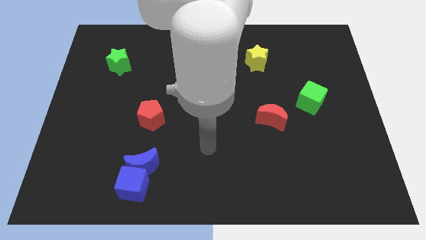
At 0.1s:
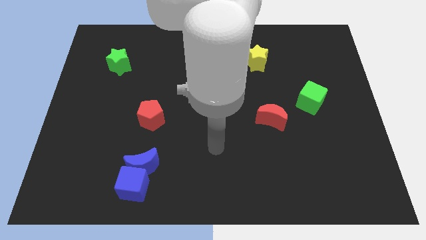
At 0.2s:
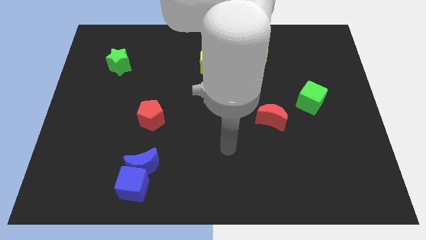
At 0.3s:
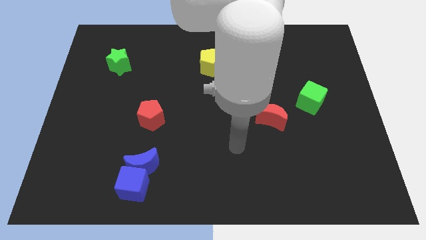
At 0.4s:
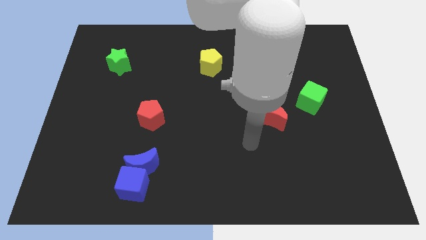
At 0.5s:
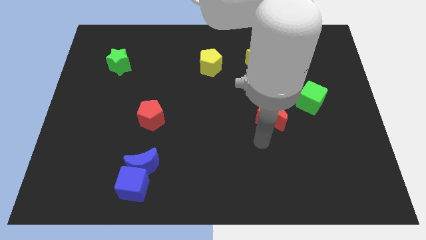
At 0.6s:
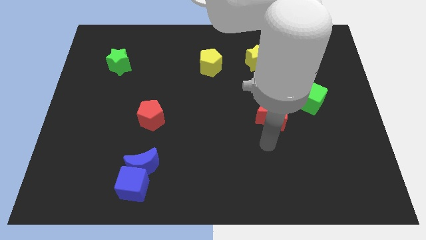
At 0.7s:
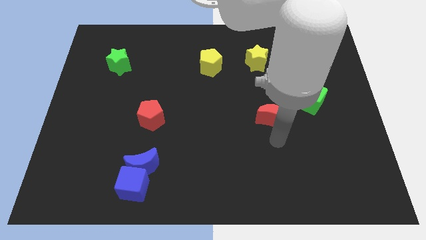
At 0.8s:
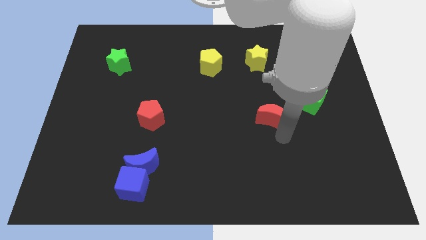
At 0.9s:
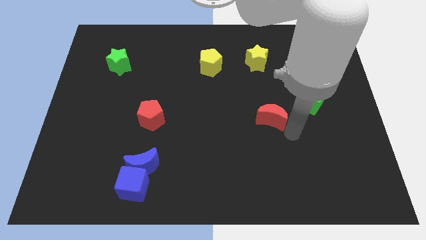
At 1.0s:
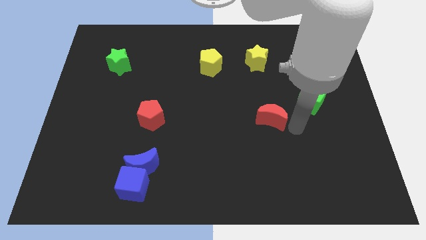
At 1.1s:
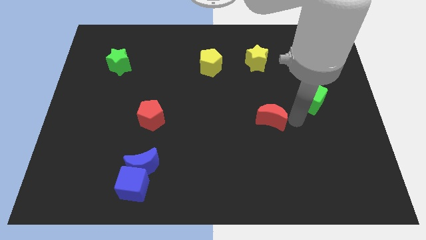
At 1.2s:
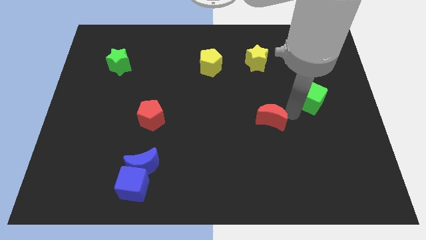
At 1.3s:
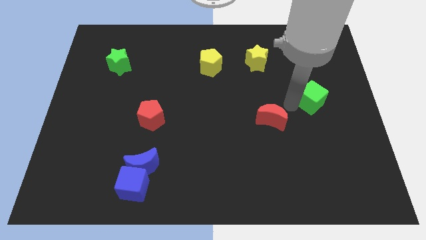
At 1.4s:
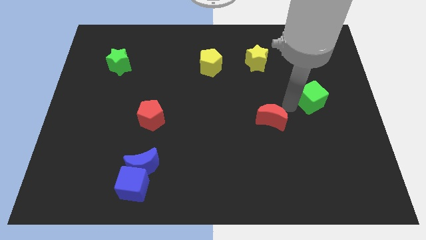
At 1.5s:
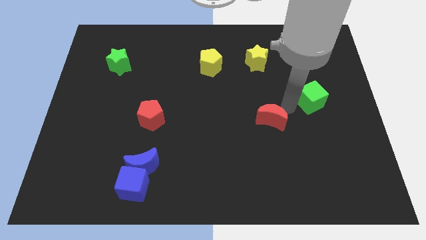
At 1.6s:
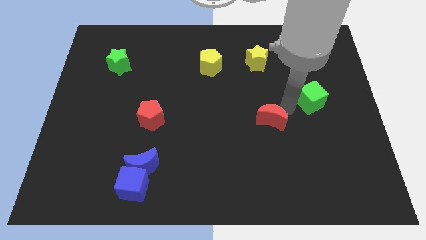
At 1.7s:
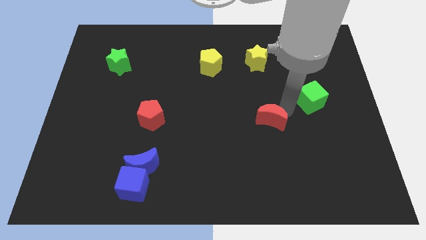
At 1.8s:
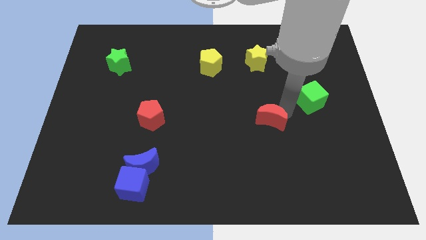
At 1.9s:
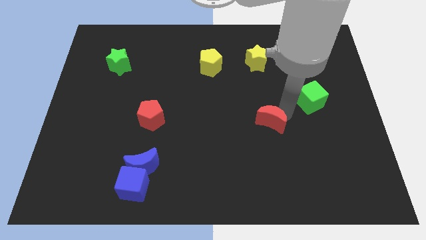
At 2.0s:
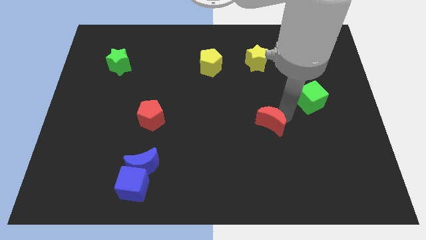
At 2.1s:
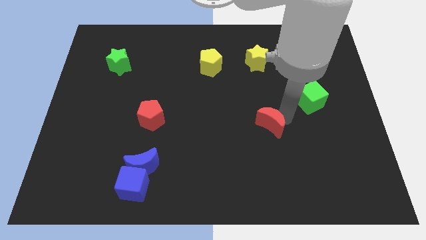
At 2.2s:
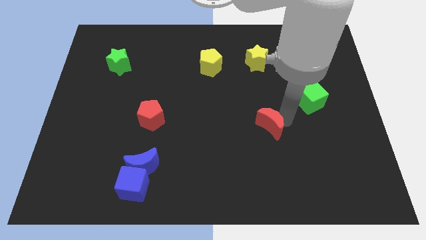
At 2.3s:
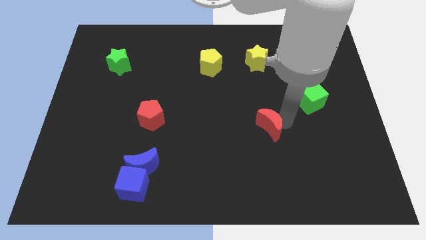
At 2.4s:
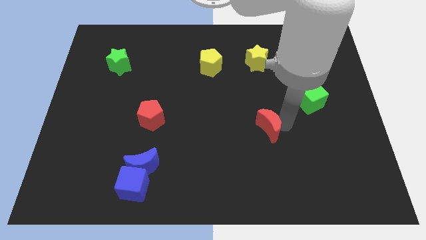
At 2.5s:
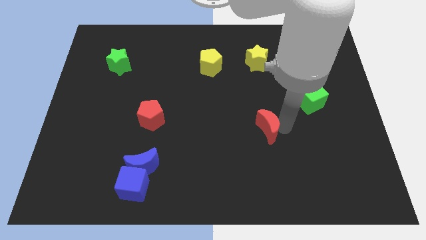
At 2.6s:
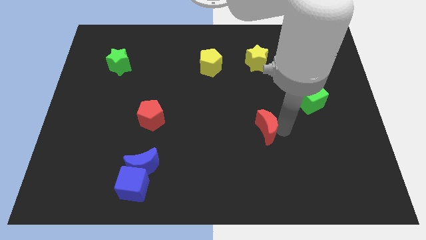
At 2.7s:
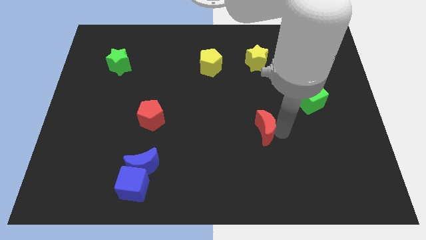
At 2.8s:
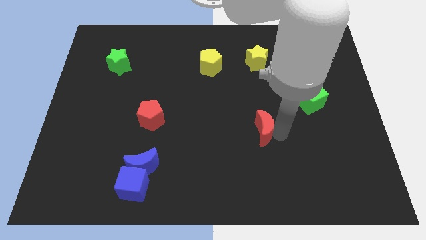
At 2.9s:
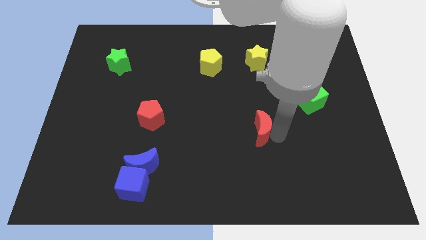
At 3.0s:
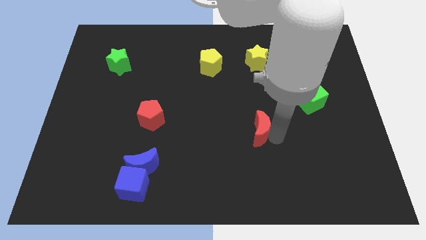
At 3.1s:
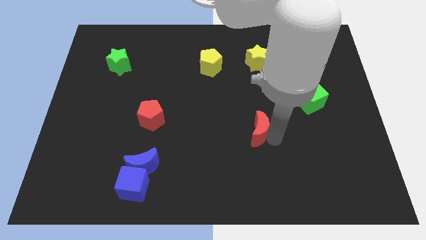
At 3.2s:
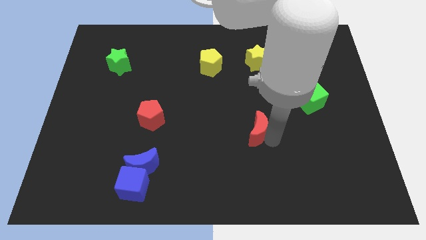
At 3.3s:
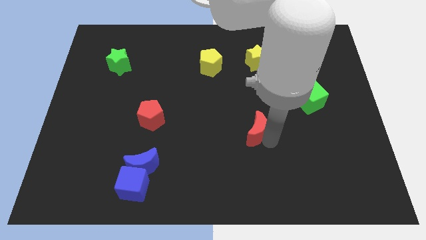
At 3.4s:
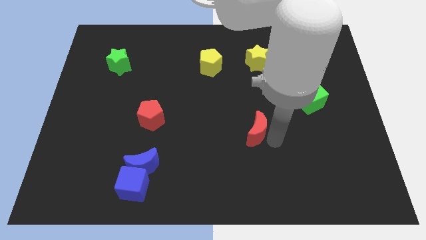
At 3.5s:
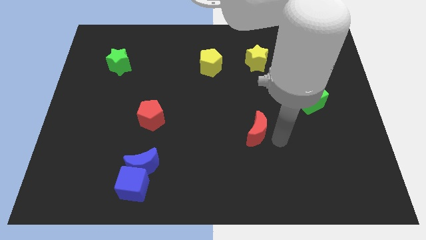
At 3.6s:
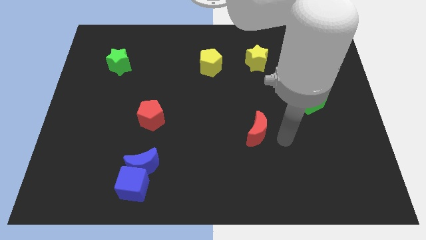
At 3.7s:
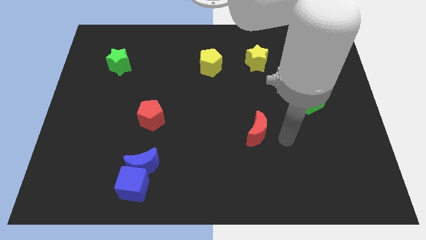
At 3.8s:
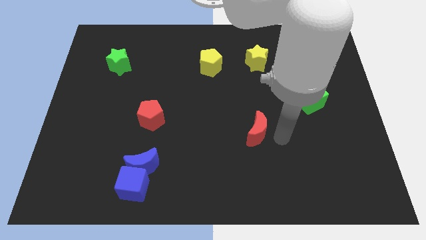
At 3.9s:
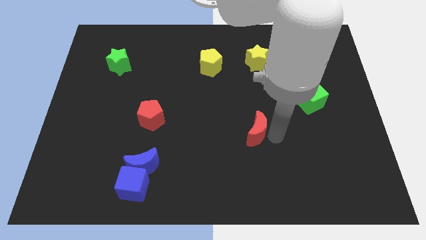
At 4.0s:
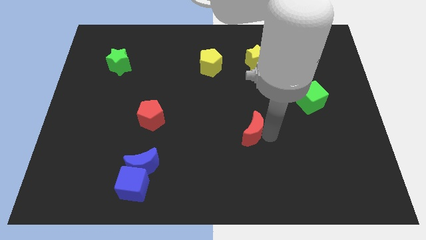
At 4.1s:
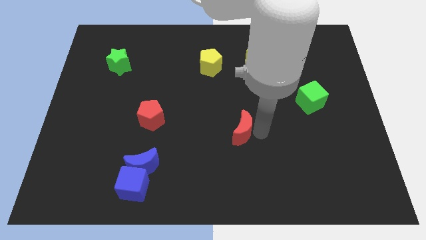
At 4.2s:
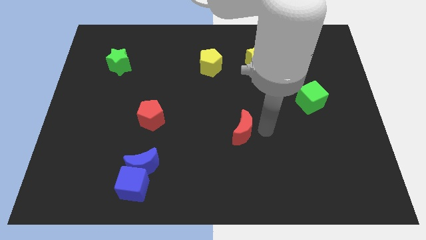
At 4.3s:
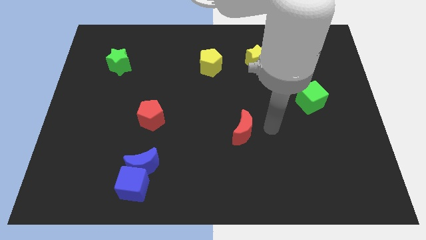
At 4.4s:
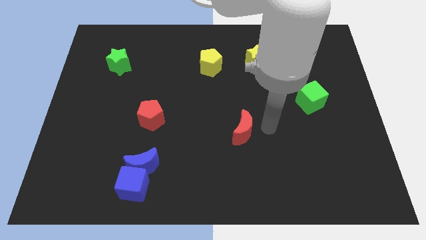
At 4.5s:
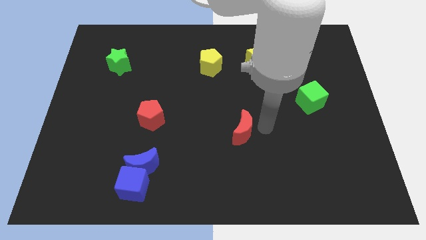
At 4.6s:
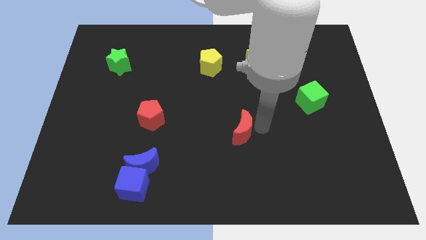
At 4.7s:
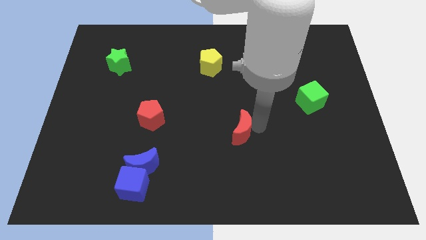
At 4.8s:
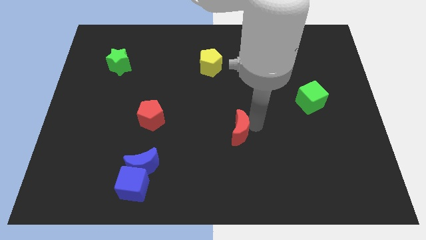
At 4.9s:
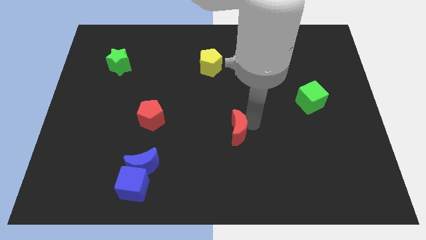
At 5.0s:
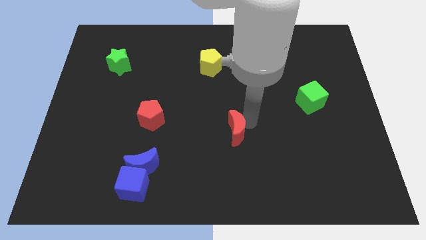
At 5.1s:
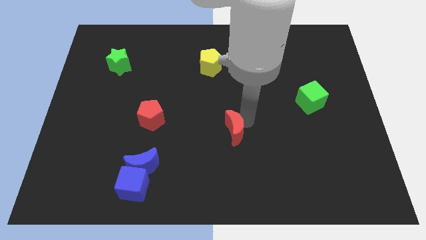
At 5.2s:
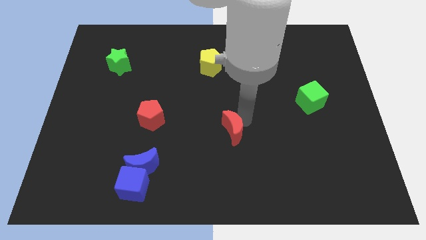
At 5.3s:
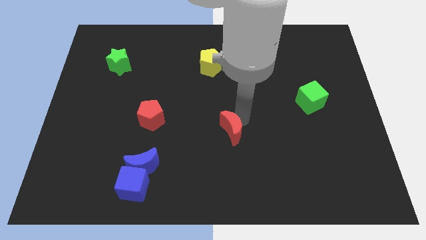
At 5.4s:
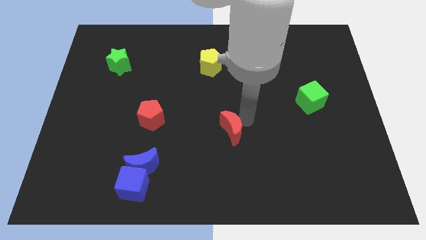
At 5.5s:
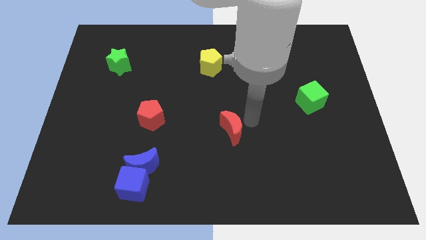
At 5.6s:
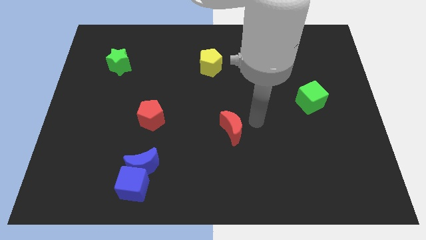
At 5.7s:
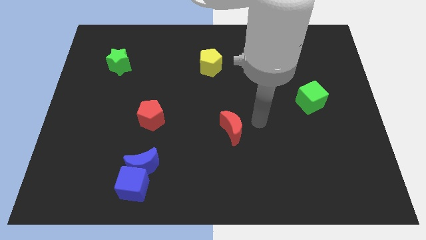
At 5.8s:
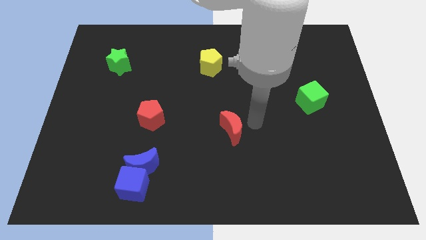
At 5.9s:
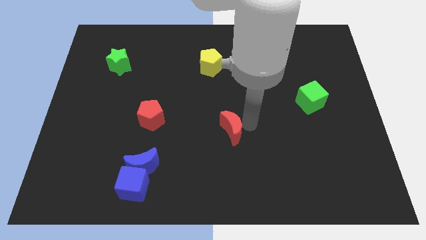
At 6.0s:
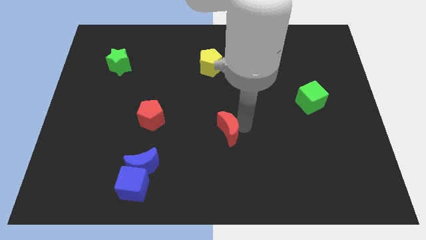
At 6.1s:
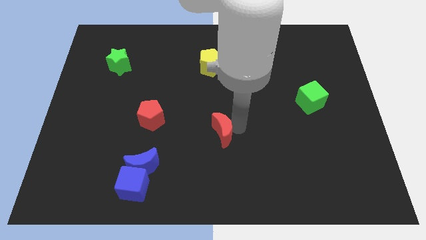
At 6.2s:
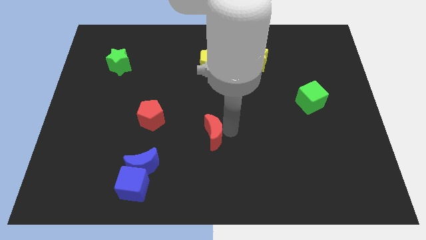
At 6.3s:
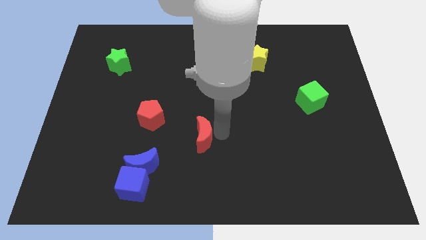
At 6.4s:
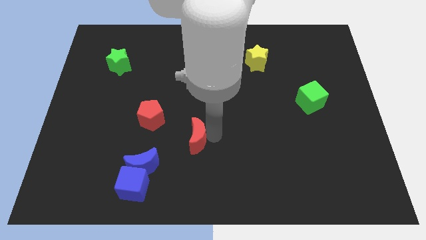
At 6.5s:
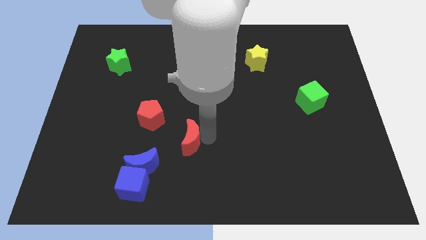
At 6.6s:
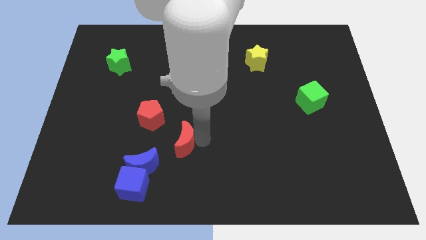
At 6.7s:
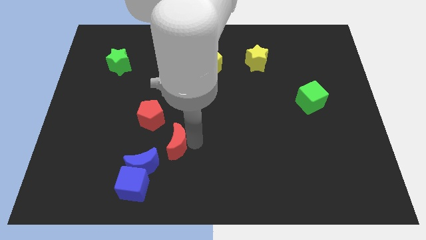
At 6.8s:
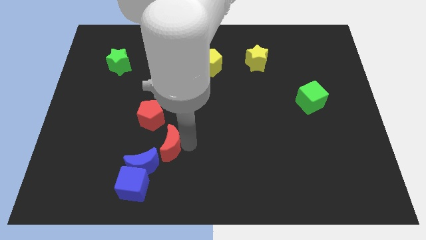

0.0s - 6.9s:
move the red moon to the left

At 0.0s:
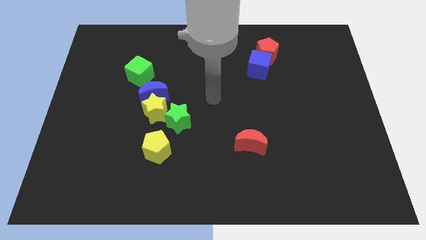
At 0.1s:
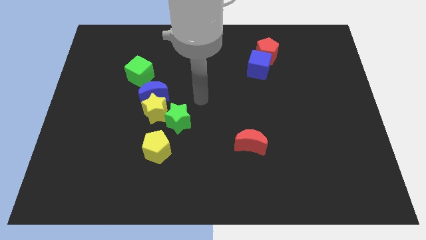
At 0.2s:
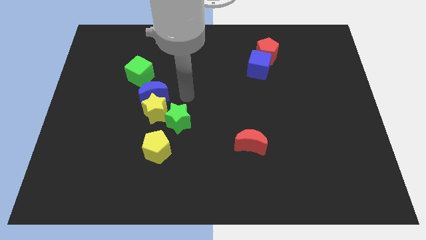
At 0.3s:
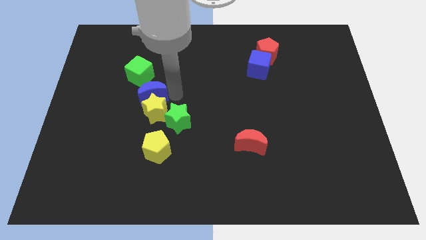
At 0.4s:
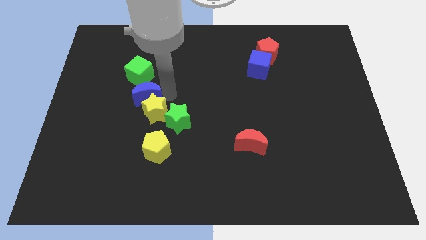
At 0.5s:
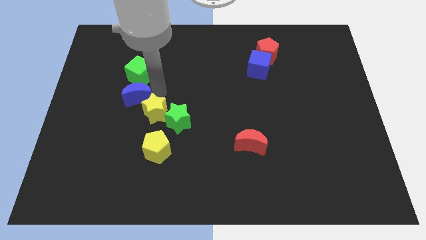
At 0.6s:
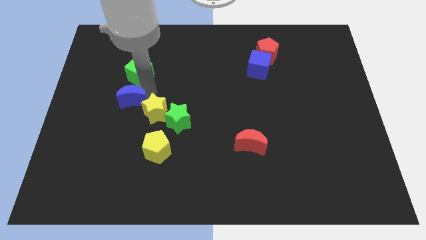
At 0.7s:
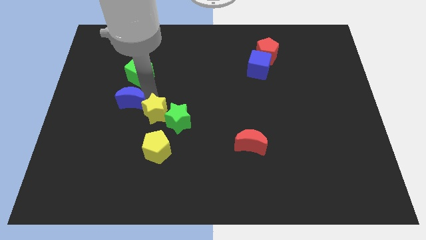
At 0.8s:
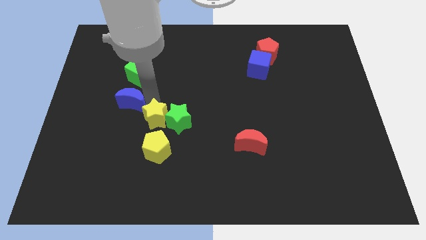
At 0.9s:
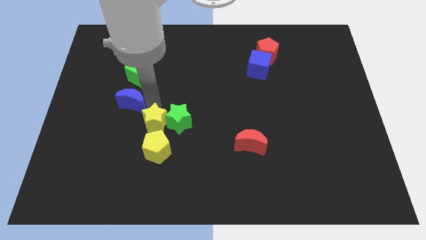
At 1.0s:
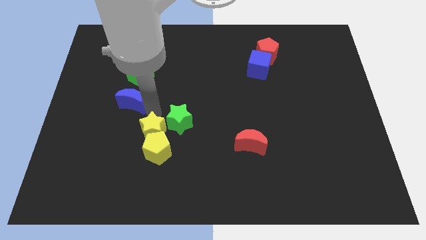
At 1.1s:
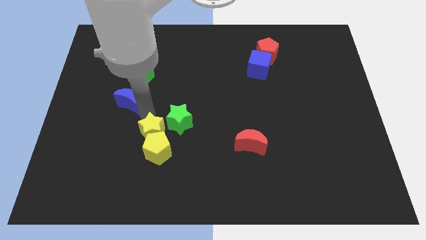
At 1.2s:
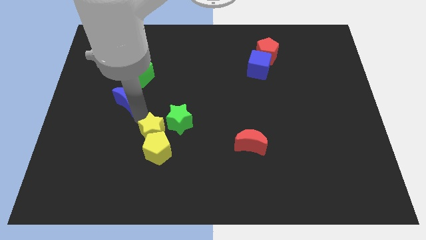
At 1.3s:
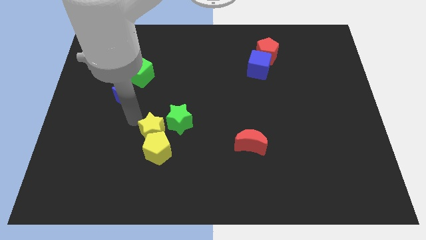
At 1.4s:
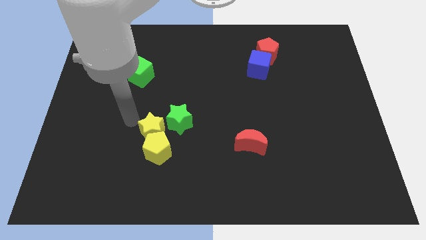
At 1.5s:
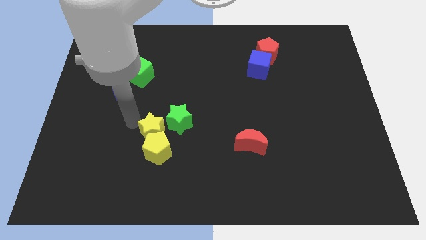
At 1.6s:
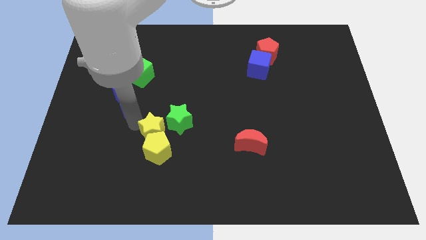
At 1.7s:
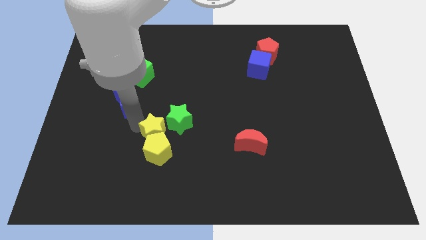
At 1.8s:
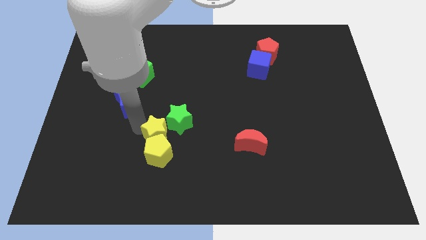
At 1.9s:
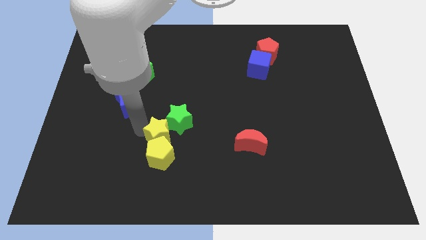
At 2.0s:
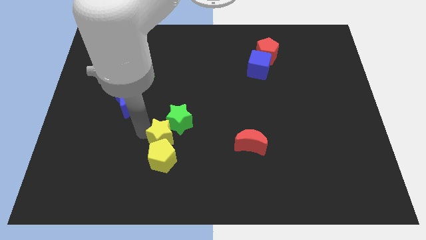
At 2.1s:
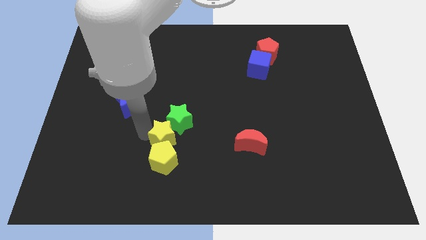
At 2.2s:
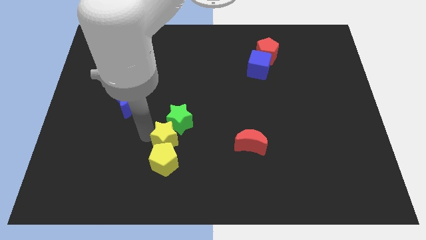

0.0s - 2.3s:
slightly move the yellow star down and right
